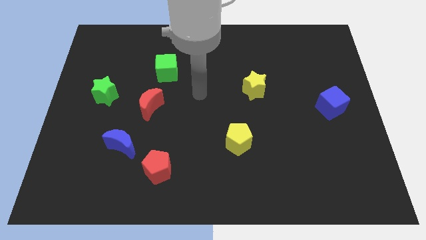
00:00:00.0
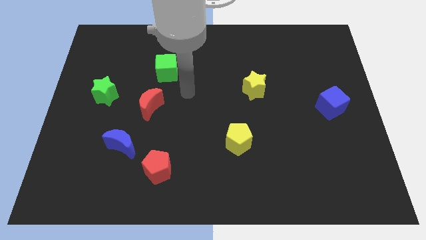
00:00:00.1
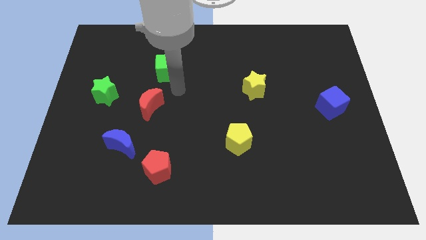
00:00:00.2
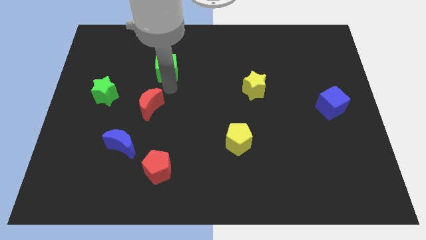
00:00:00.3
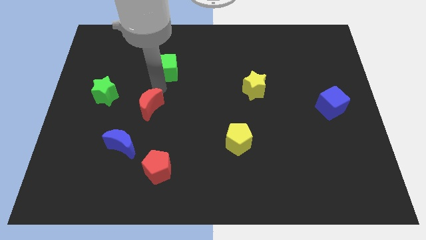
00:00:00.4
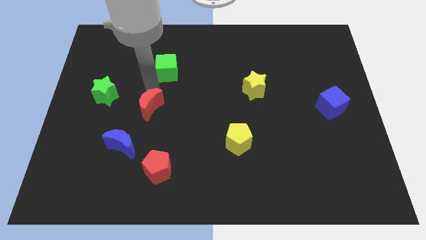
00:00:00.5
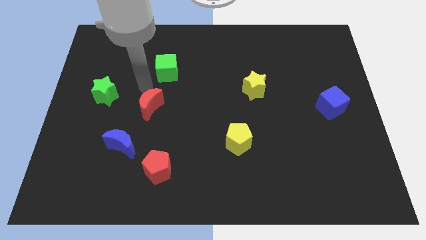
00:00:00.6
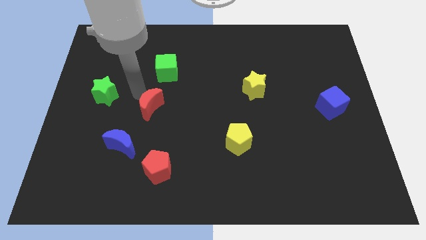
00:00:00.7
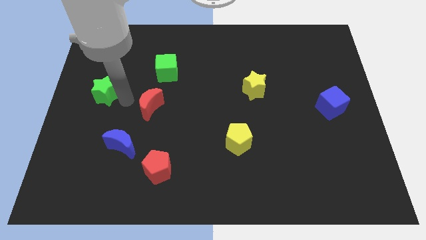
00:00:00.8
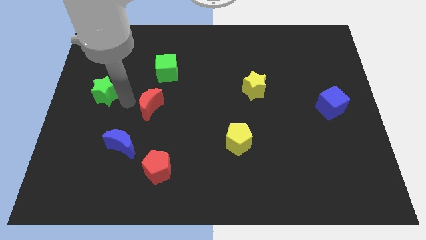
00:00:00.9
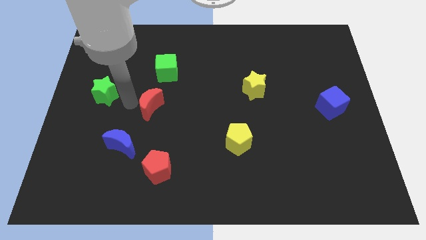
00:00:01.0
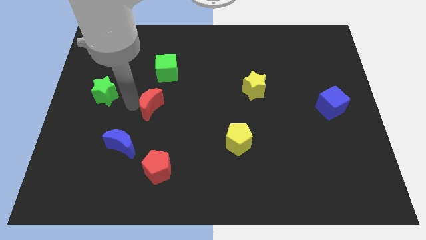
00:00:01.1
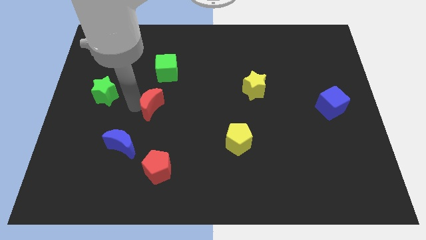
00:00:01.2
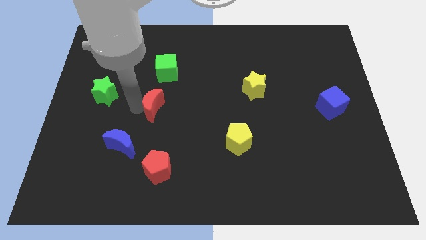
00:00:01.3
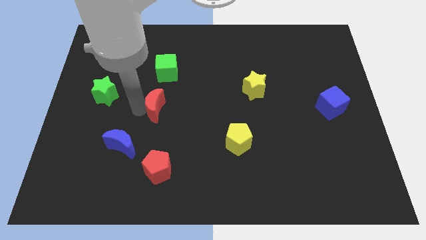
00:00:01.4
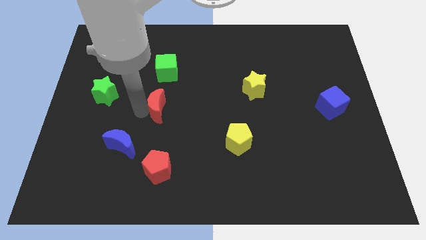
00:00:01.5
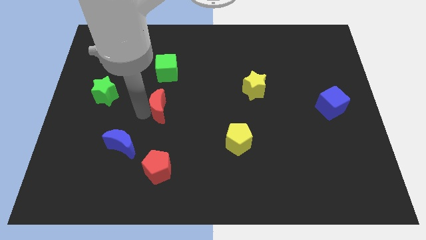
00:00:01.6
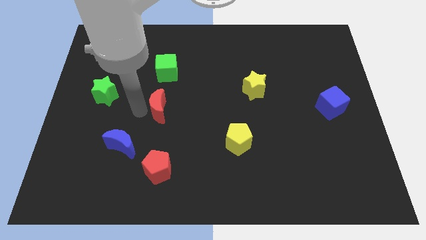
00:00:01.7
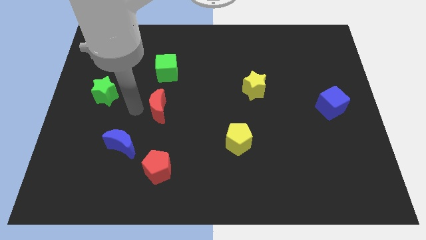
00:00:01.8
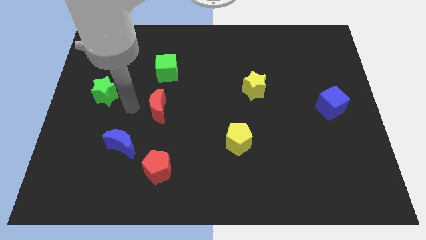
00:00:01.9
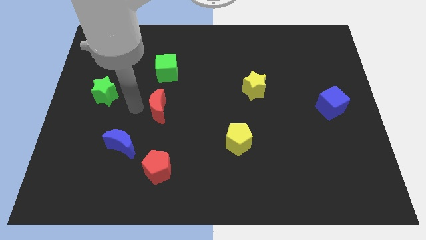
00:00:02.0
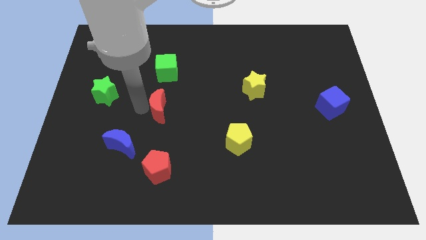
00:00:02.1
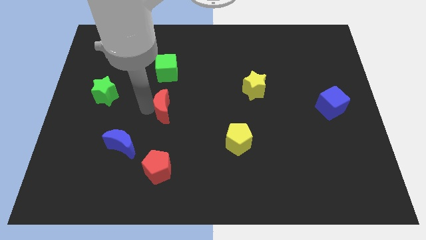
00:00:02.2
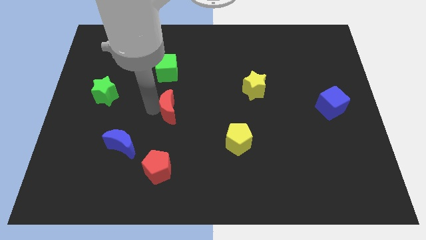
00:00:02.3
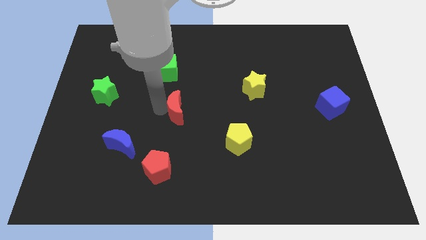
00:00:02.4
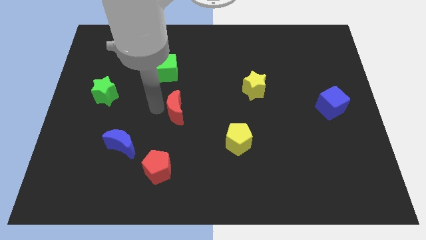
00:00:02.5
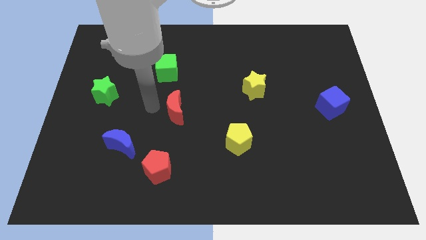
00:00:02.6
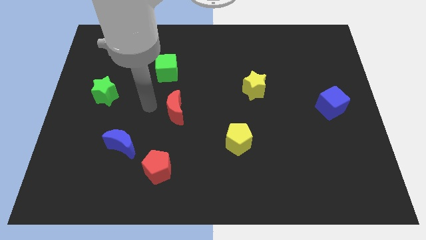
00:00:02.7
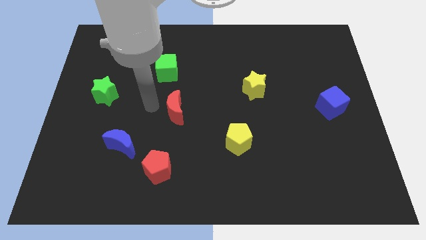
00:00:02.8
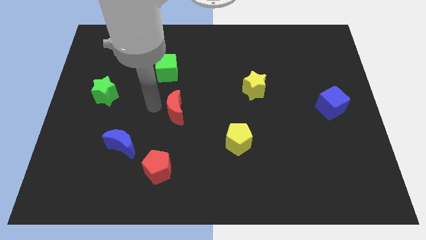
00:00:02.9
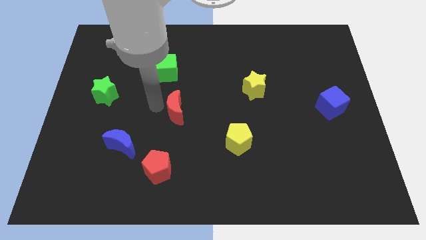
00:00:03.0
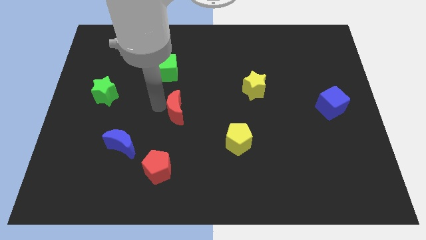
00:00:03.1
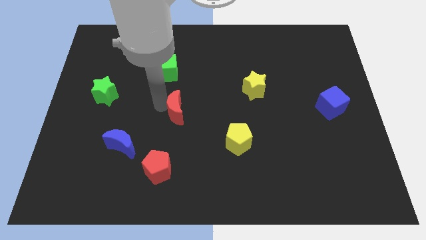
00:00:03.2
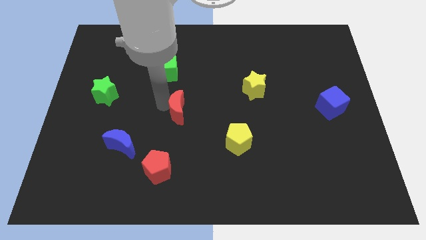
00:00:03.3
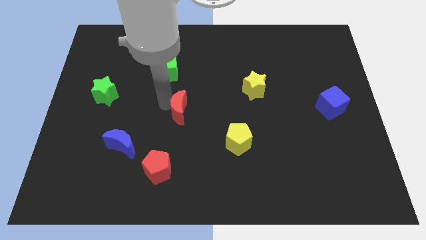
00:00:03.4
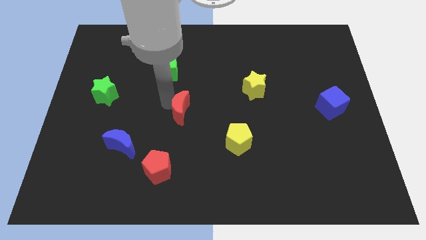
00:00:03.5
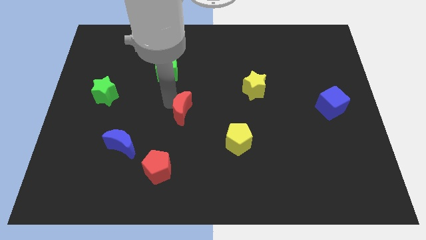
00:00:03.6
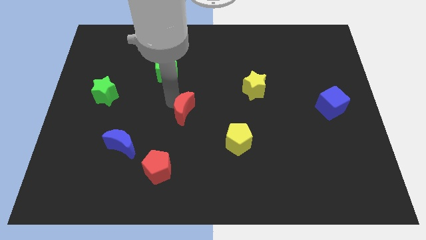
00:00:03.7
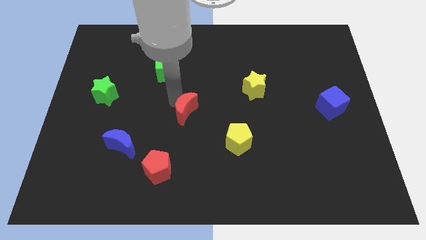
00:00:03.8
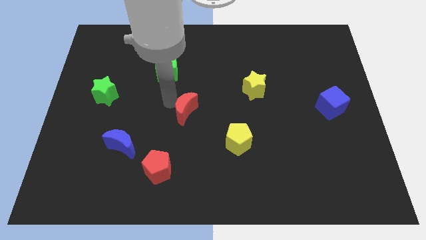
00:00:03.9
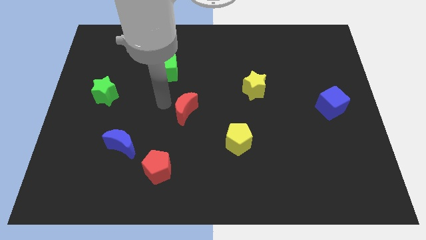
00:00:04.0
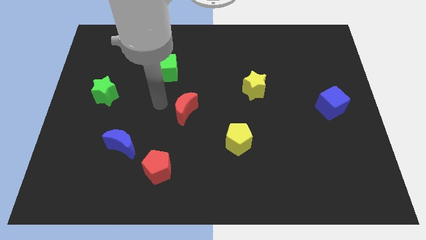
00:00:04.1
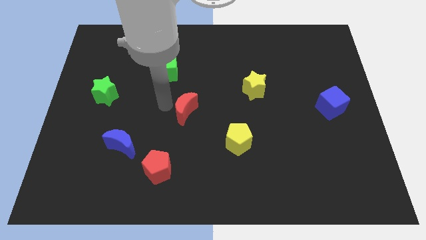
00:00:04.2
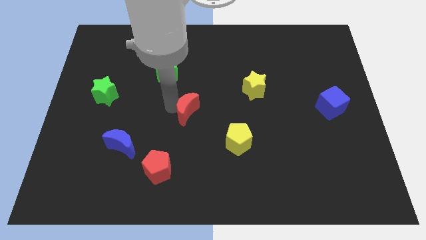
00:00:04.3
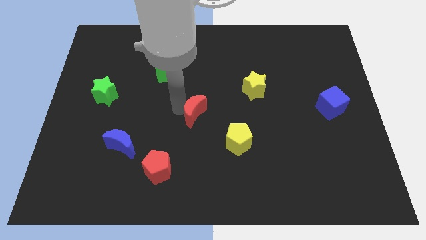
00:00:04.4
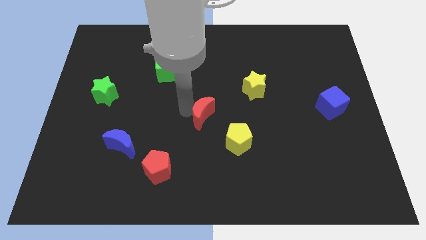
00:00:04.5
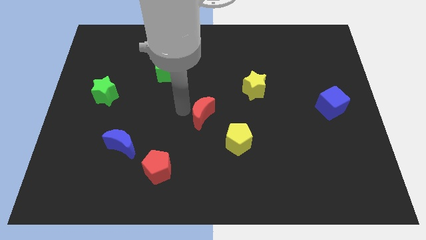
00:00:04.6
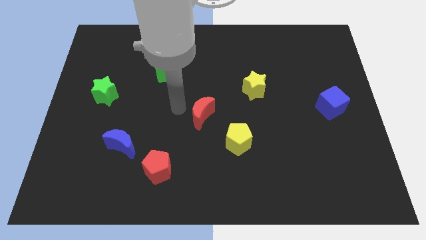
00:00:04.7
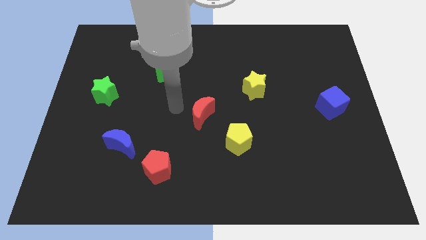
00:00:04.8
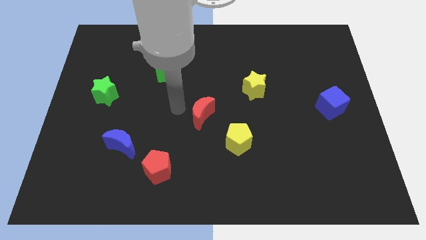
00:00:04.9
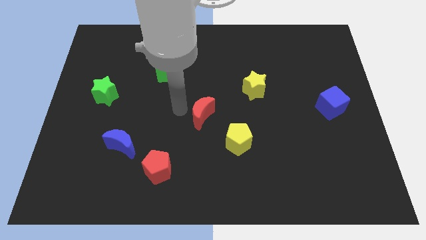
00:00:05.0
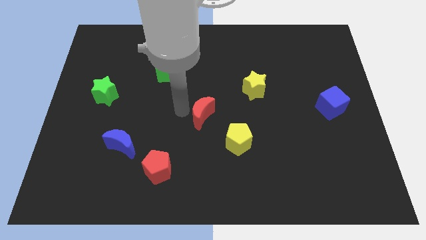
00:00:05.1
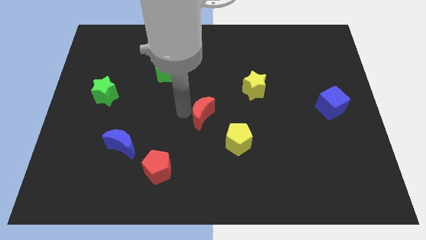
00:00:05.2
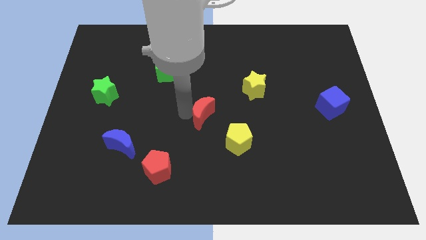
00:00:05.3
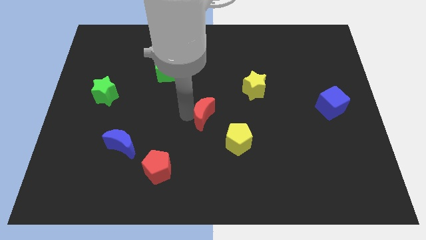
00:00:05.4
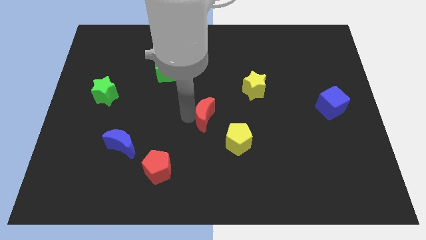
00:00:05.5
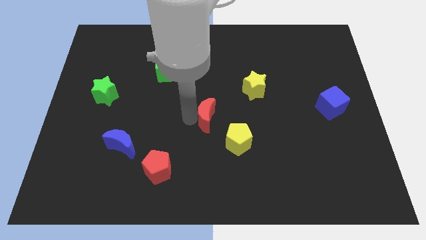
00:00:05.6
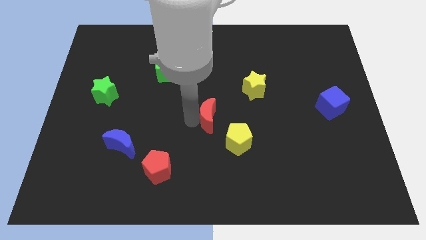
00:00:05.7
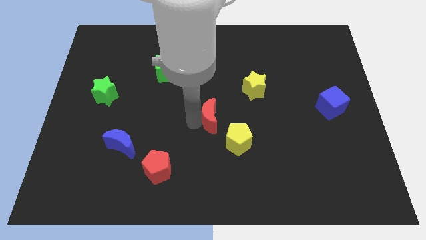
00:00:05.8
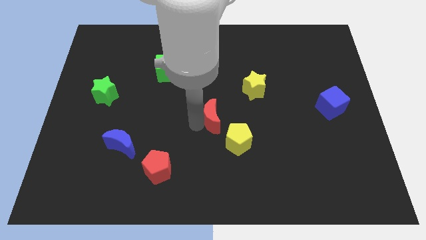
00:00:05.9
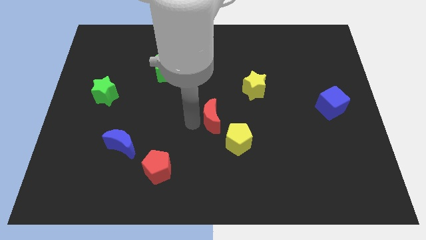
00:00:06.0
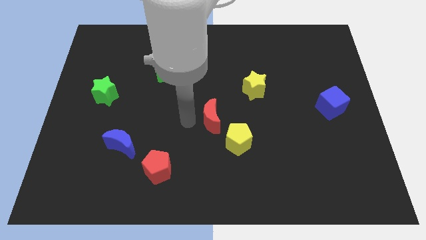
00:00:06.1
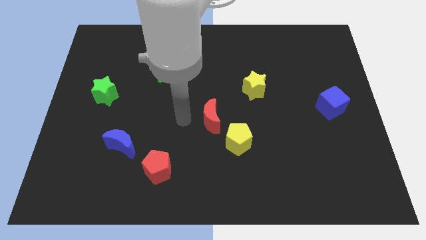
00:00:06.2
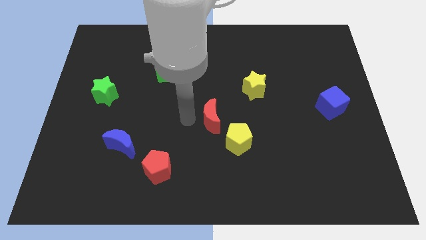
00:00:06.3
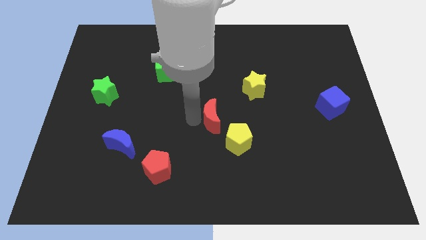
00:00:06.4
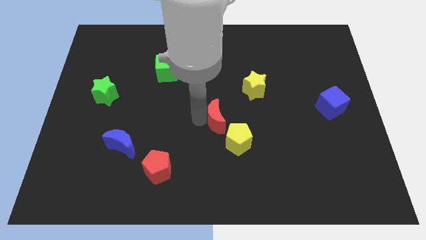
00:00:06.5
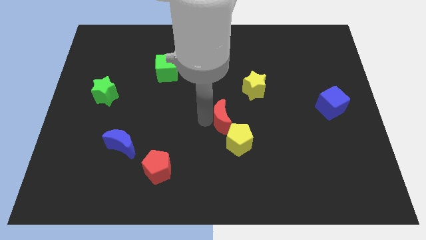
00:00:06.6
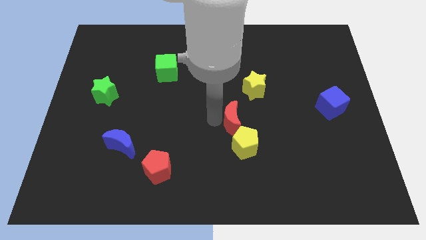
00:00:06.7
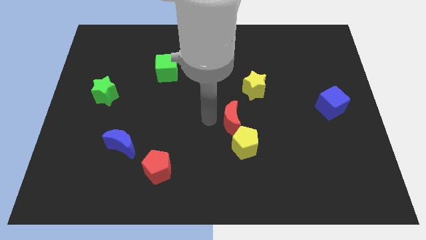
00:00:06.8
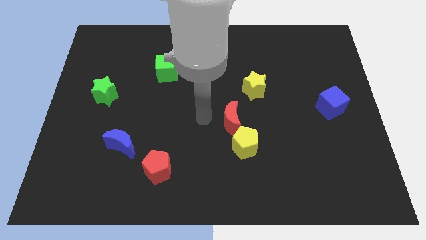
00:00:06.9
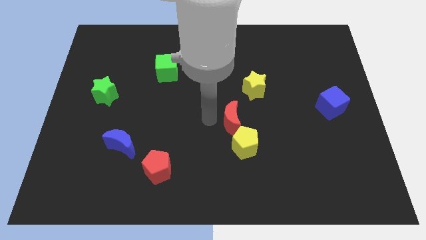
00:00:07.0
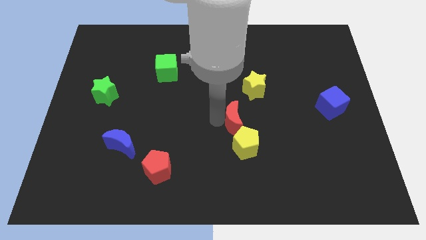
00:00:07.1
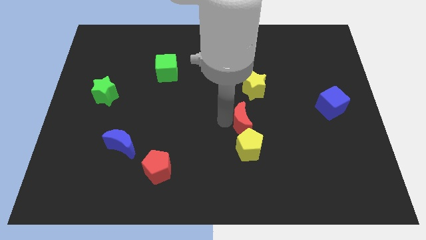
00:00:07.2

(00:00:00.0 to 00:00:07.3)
move the red moon to the bottom side of the yellow star

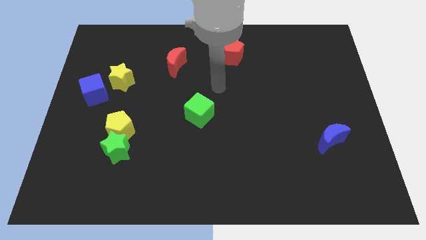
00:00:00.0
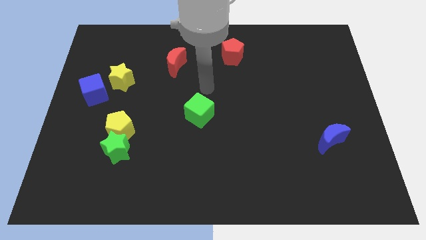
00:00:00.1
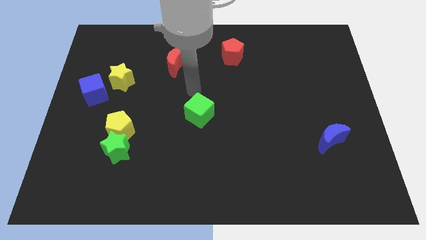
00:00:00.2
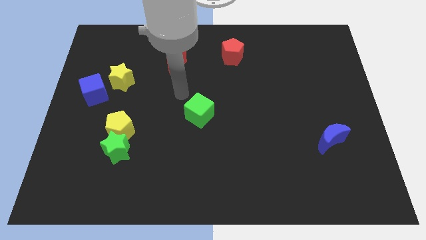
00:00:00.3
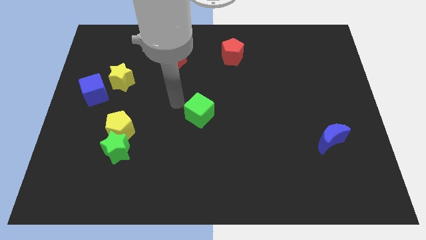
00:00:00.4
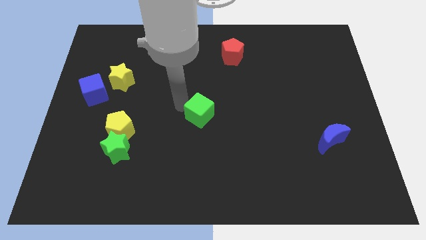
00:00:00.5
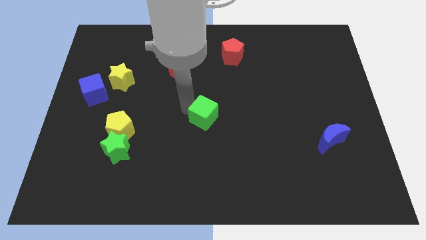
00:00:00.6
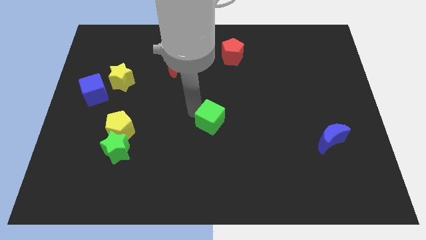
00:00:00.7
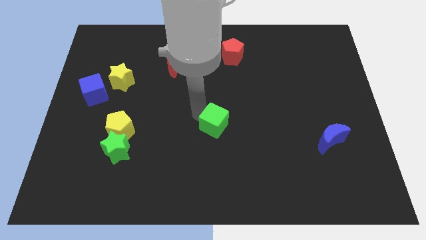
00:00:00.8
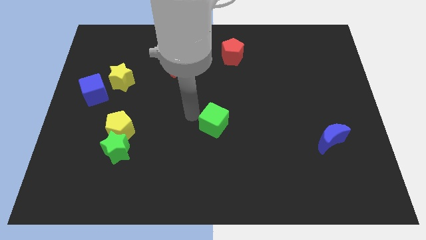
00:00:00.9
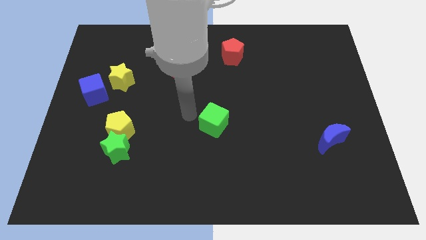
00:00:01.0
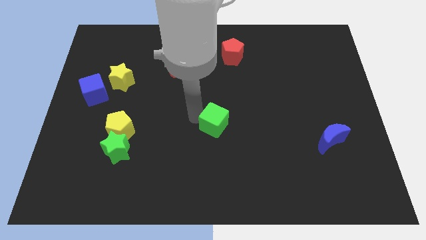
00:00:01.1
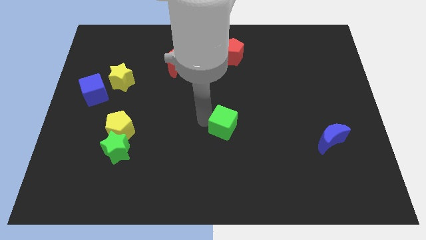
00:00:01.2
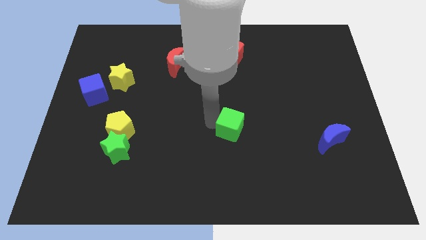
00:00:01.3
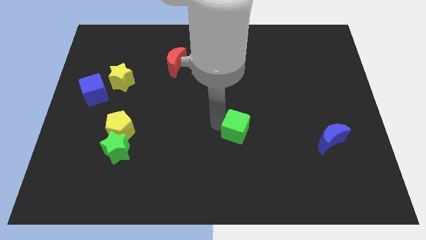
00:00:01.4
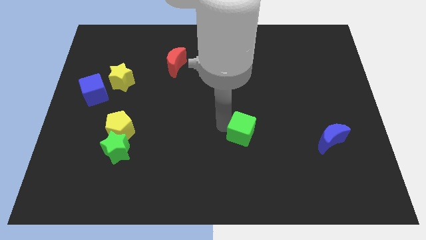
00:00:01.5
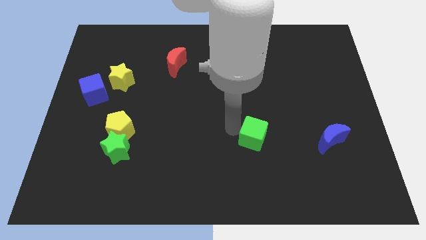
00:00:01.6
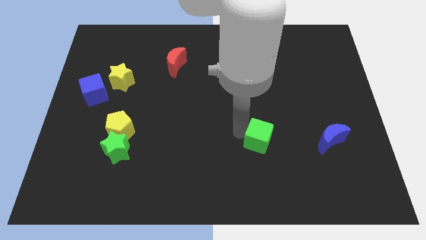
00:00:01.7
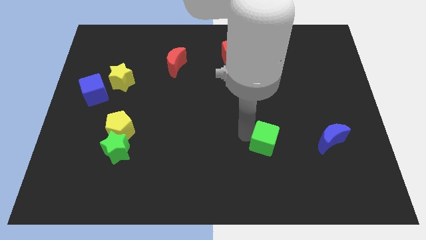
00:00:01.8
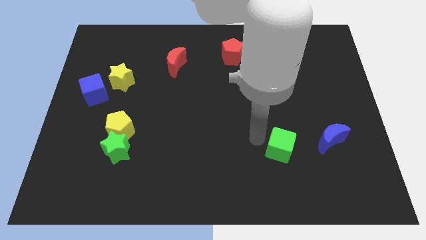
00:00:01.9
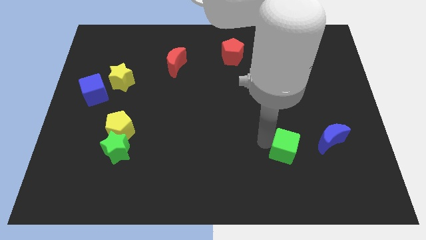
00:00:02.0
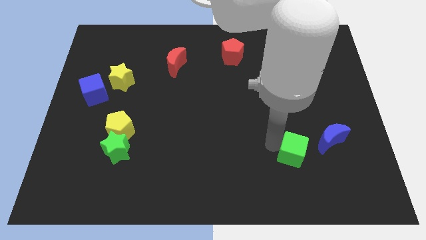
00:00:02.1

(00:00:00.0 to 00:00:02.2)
slide the green cube to the bottom left of the blue moon
